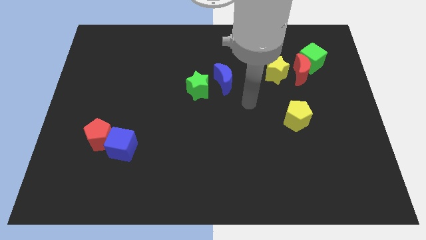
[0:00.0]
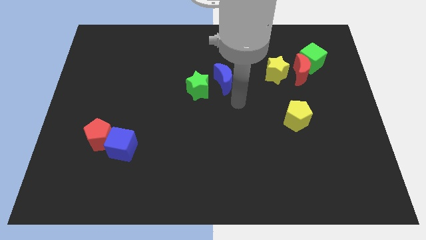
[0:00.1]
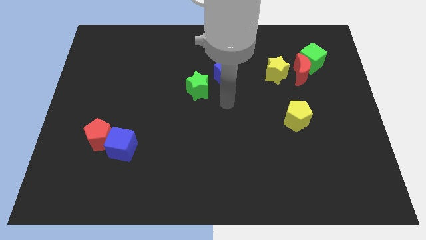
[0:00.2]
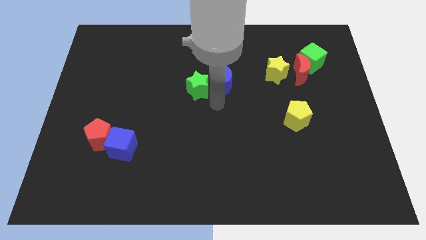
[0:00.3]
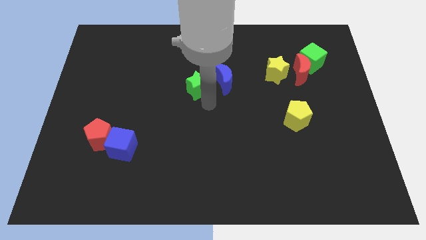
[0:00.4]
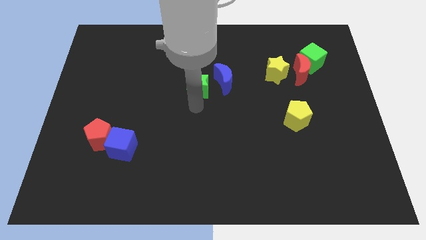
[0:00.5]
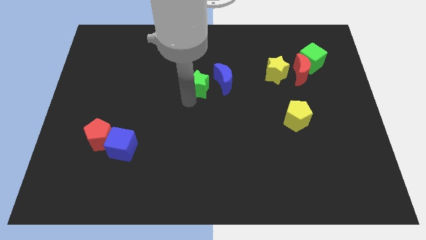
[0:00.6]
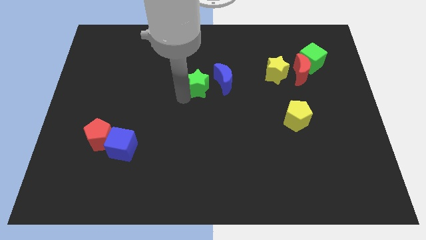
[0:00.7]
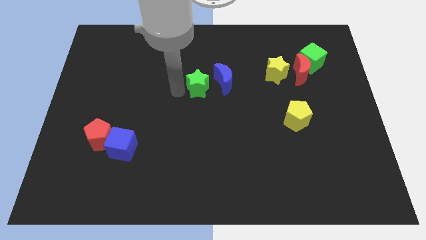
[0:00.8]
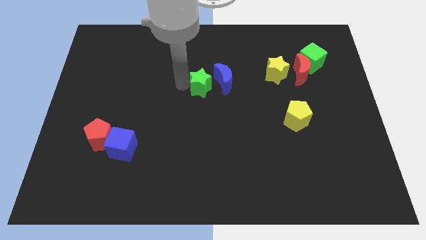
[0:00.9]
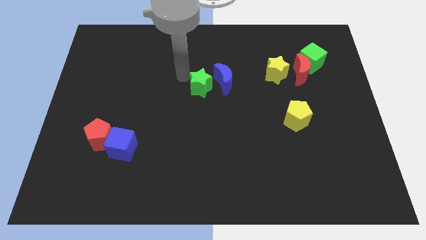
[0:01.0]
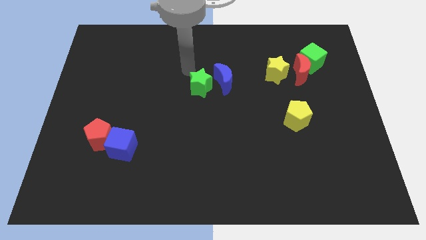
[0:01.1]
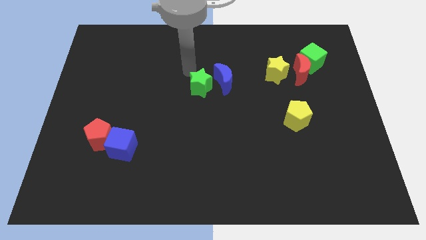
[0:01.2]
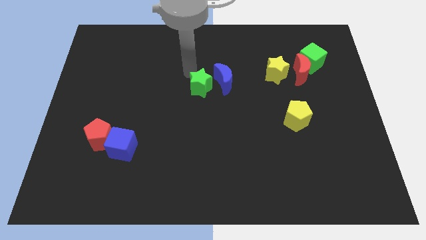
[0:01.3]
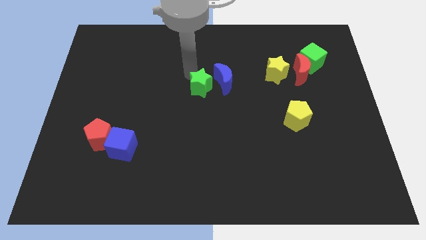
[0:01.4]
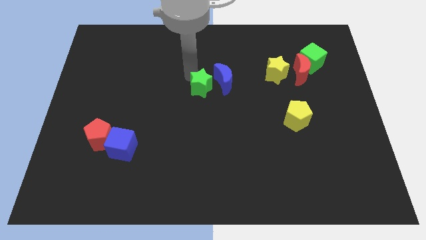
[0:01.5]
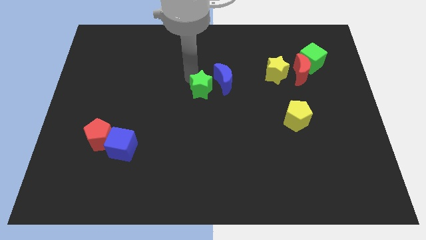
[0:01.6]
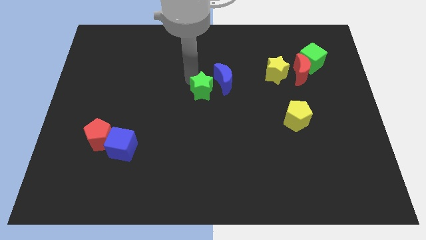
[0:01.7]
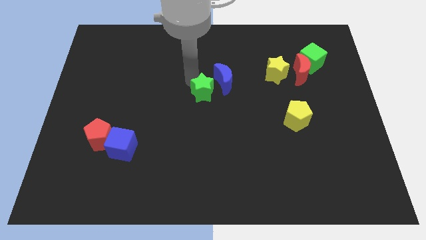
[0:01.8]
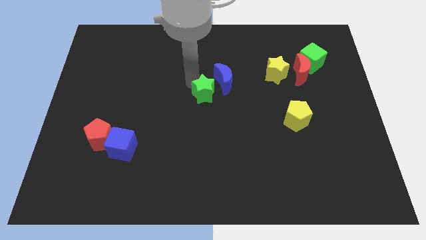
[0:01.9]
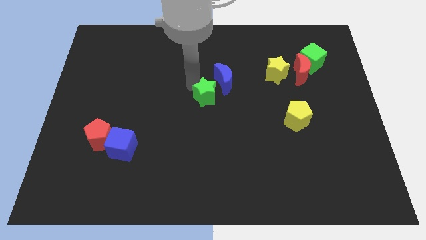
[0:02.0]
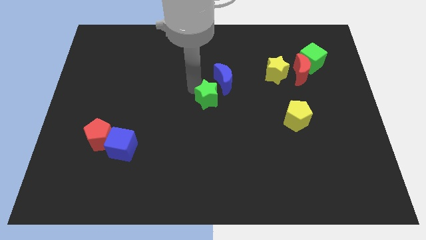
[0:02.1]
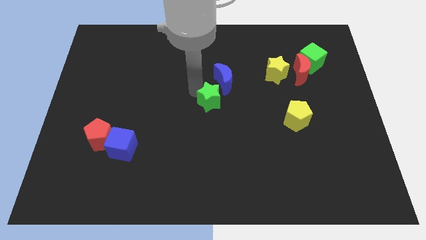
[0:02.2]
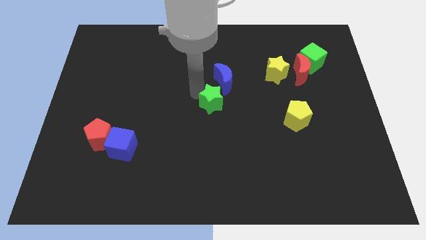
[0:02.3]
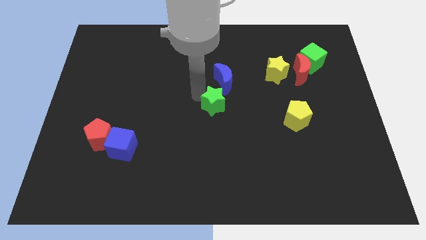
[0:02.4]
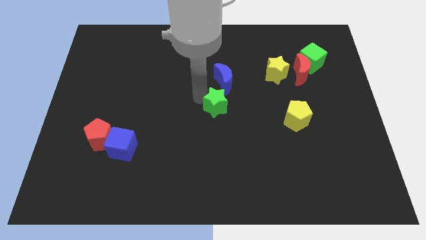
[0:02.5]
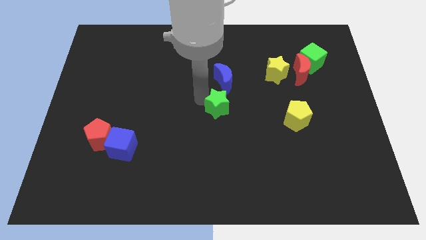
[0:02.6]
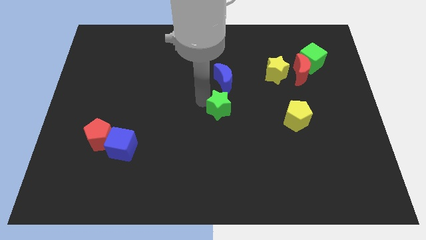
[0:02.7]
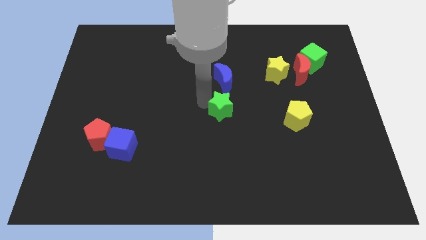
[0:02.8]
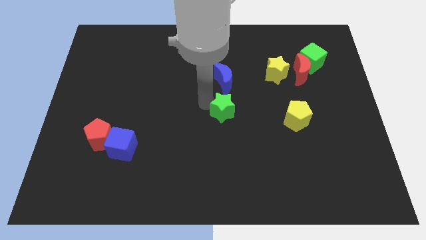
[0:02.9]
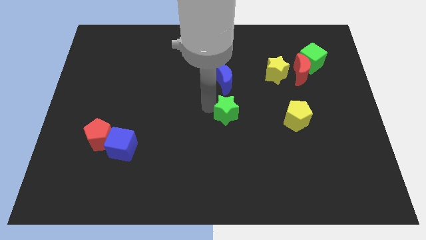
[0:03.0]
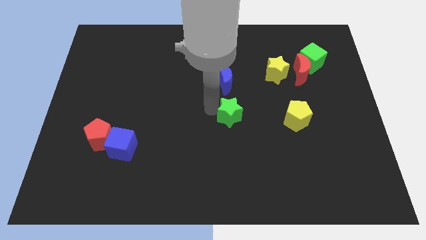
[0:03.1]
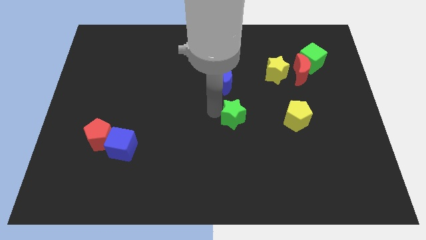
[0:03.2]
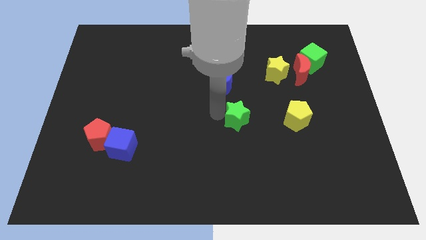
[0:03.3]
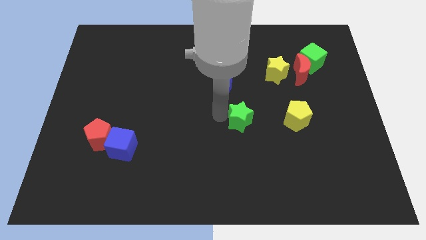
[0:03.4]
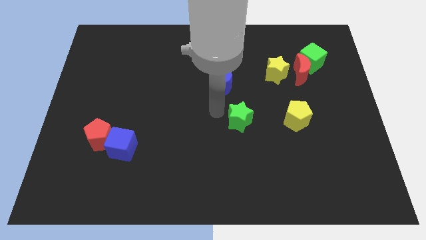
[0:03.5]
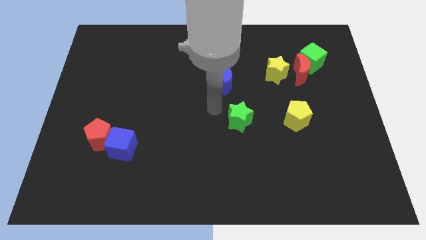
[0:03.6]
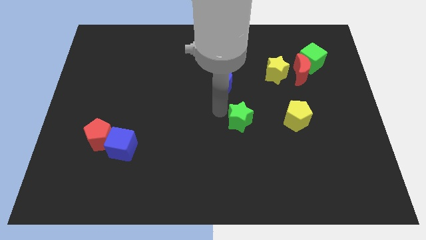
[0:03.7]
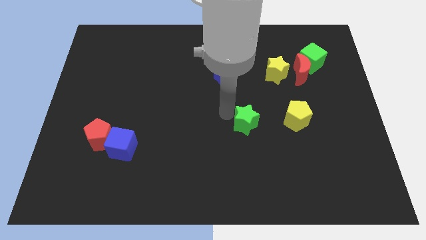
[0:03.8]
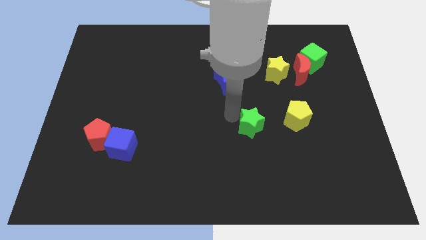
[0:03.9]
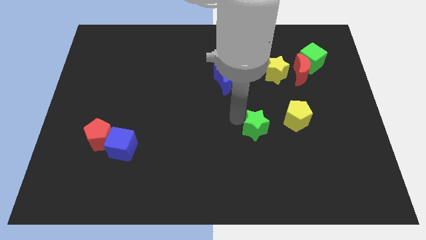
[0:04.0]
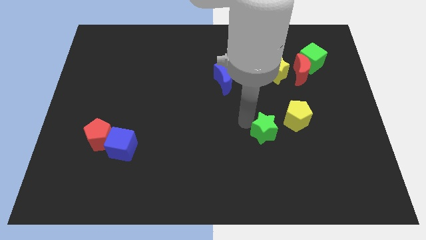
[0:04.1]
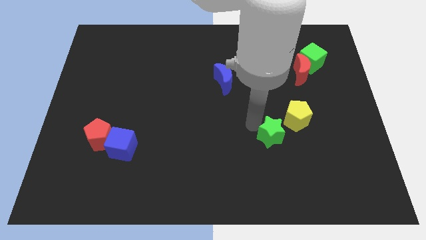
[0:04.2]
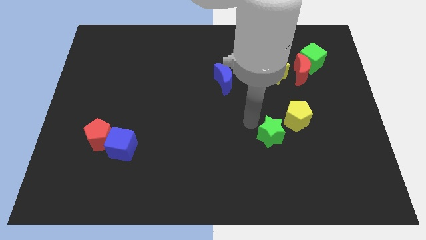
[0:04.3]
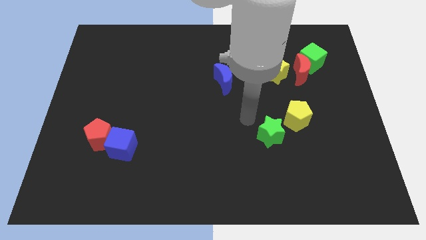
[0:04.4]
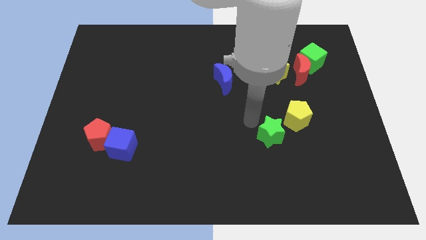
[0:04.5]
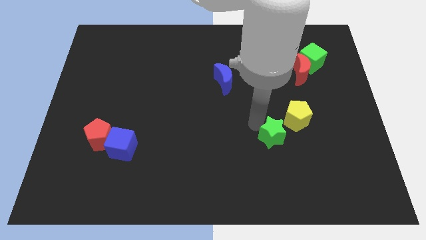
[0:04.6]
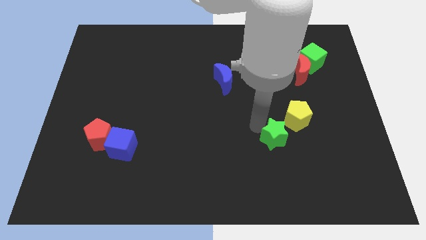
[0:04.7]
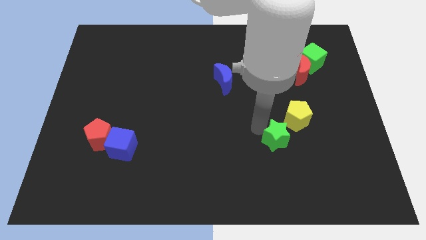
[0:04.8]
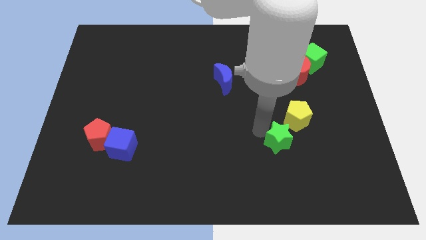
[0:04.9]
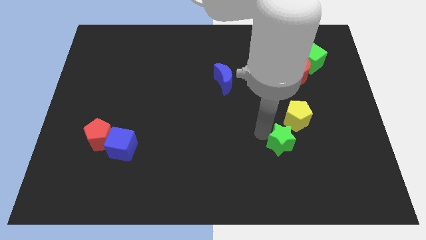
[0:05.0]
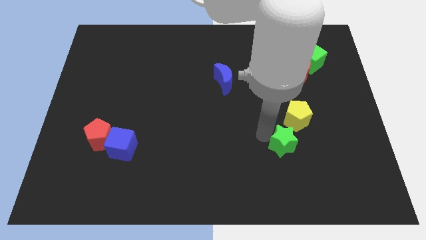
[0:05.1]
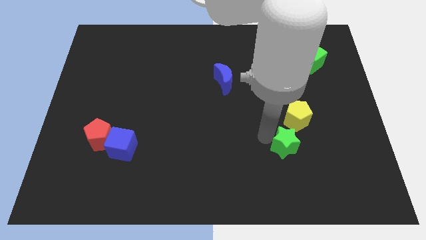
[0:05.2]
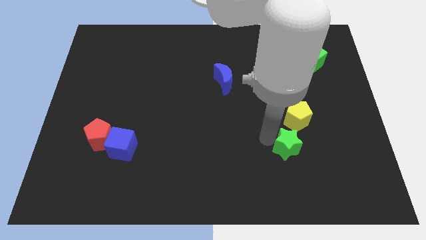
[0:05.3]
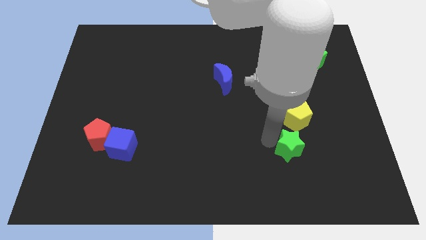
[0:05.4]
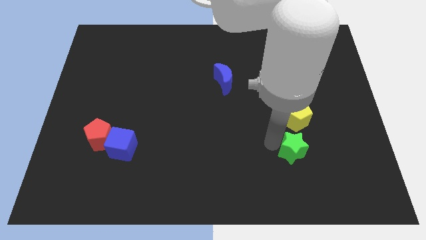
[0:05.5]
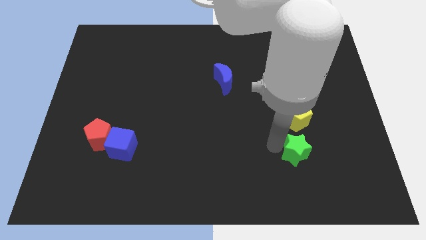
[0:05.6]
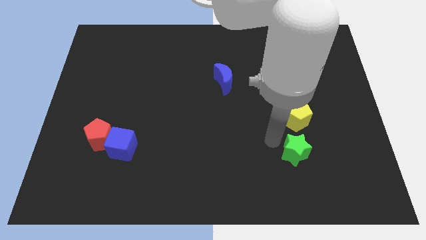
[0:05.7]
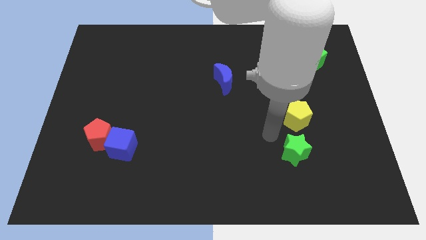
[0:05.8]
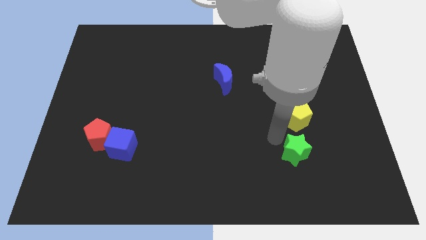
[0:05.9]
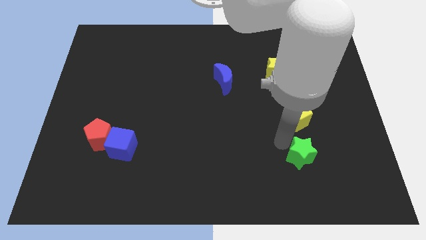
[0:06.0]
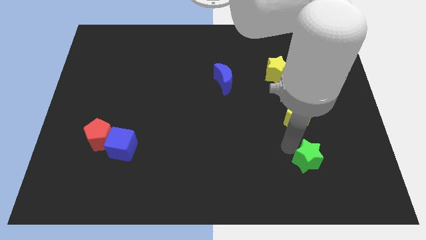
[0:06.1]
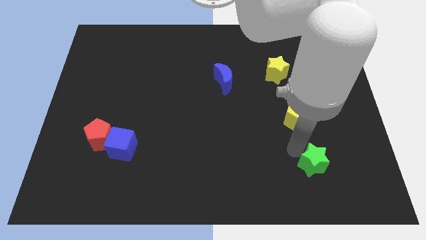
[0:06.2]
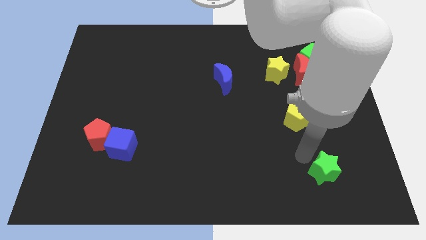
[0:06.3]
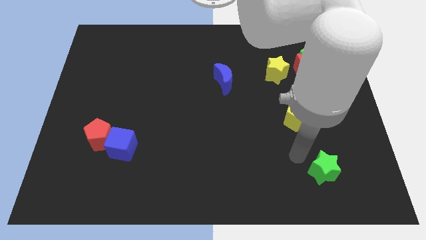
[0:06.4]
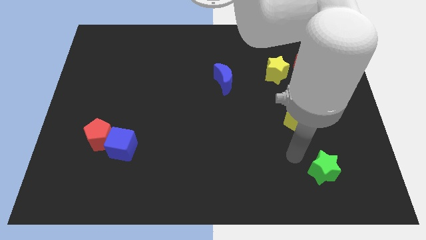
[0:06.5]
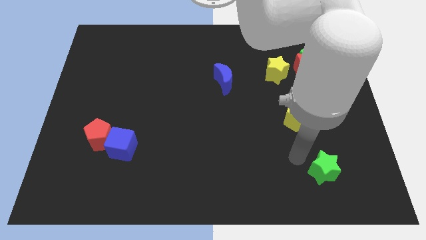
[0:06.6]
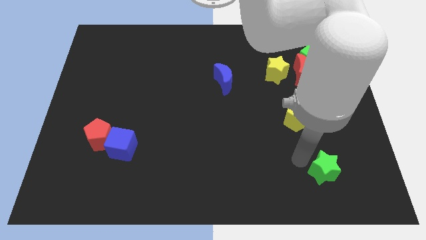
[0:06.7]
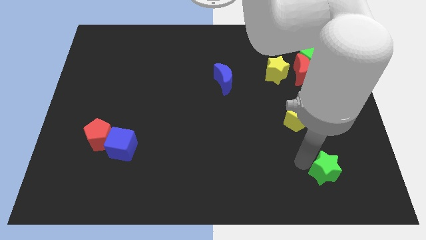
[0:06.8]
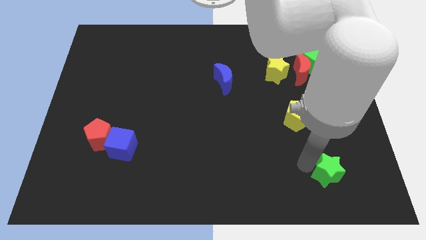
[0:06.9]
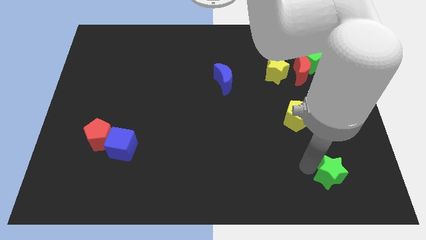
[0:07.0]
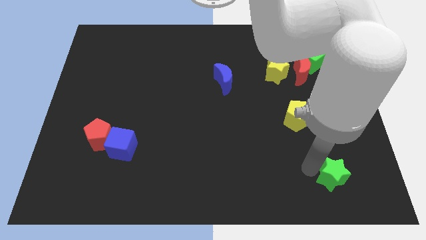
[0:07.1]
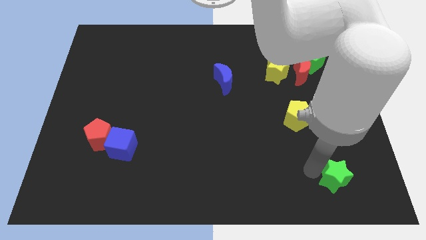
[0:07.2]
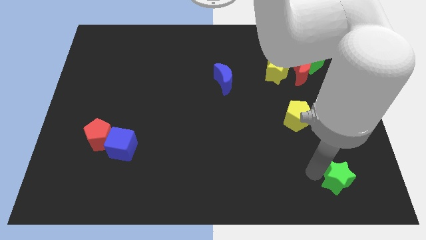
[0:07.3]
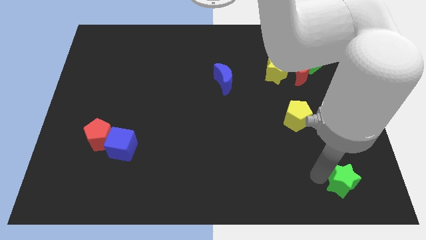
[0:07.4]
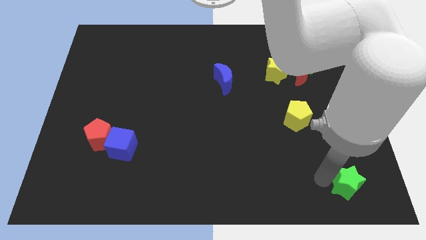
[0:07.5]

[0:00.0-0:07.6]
move the green star to the lower right corner

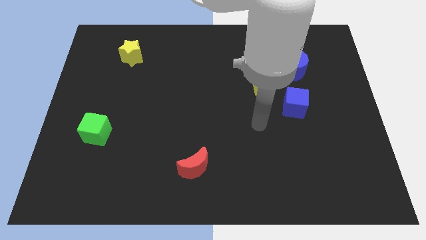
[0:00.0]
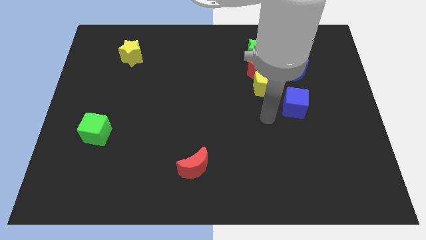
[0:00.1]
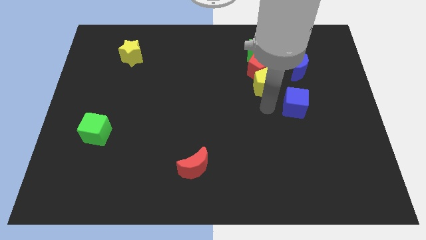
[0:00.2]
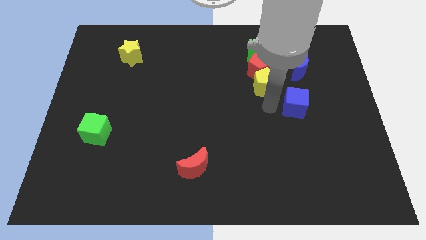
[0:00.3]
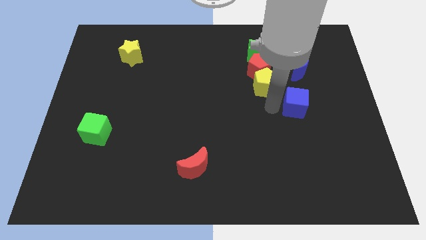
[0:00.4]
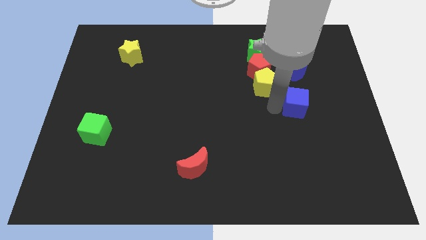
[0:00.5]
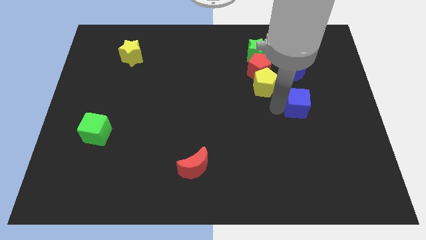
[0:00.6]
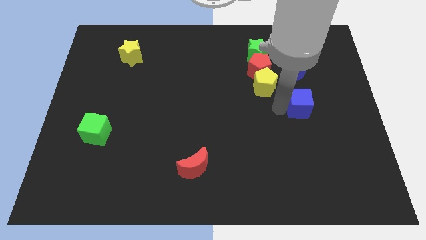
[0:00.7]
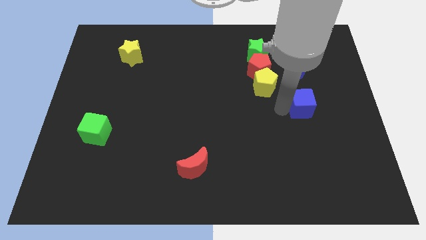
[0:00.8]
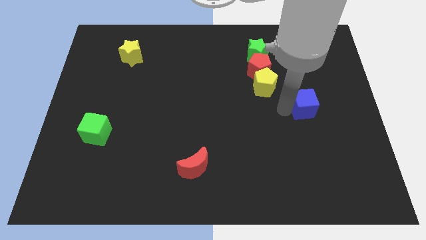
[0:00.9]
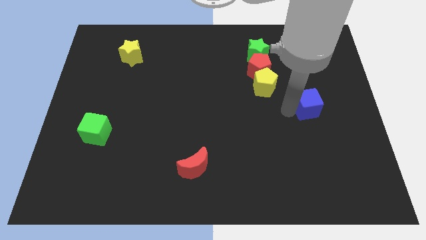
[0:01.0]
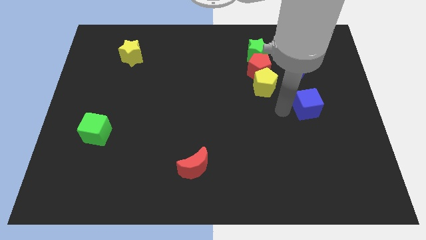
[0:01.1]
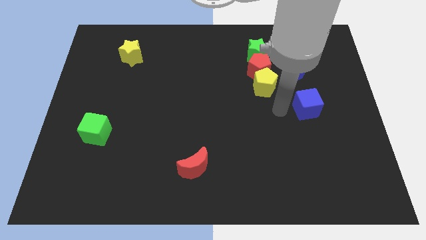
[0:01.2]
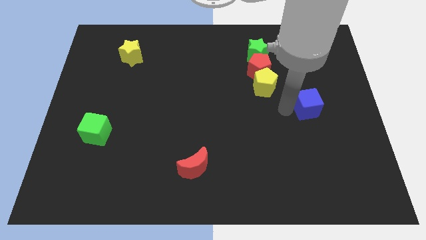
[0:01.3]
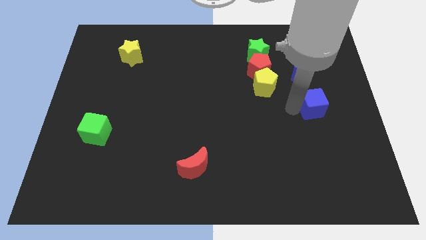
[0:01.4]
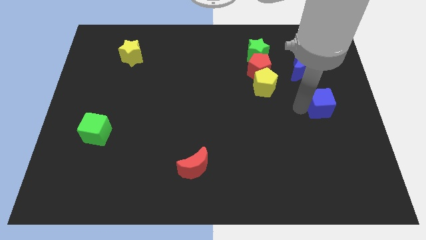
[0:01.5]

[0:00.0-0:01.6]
put the blue cube to the center right
